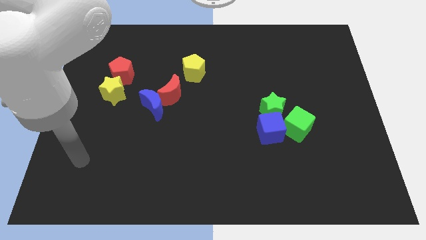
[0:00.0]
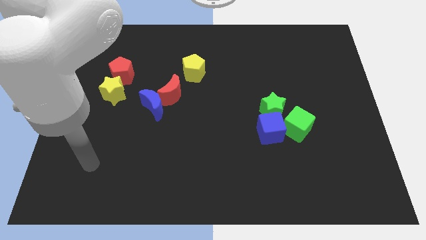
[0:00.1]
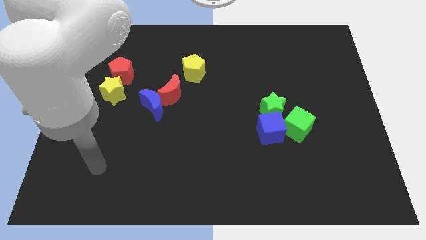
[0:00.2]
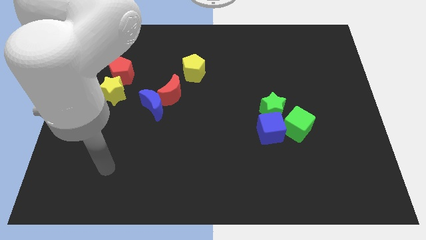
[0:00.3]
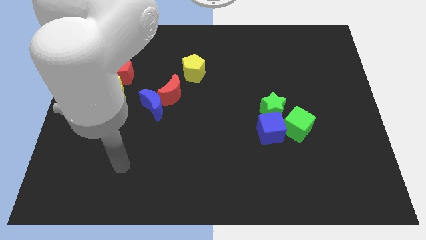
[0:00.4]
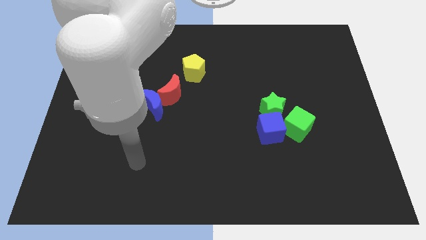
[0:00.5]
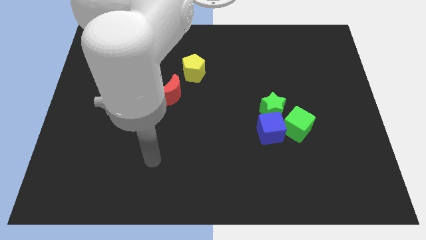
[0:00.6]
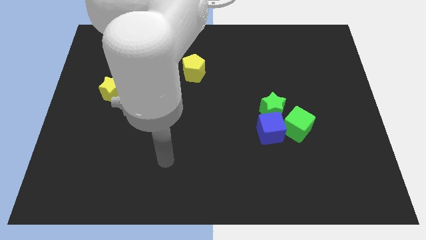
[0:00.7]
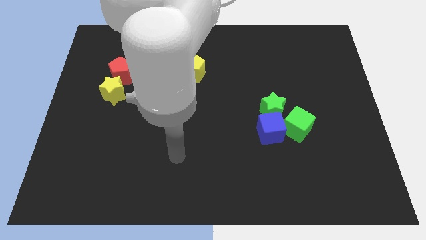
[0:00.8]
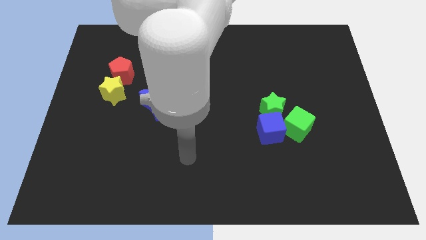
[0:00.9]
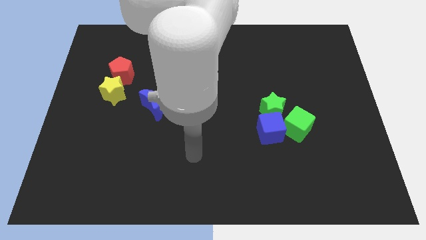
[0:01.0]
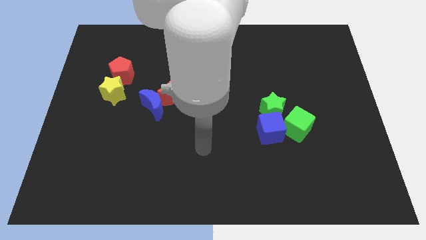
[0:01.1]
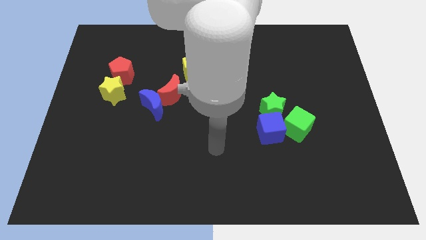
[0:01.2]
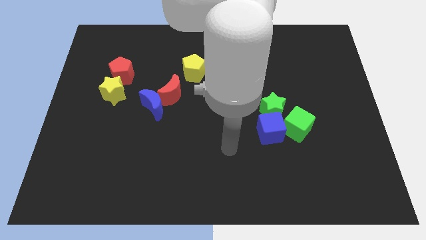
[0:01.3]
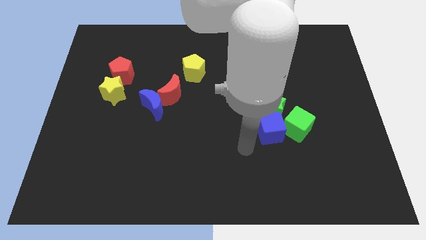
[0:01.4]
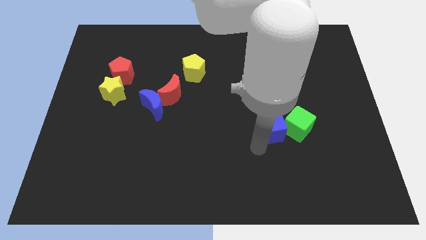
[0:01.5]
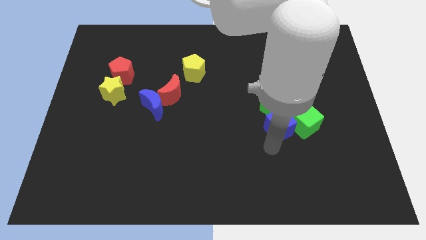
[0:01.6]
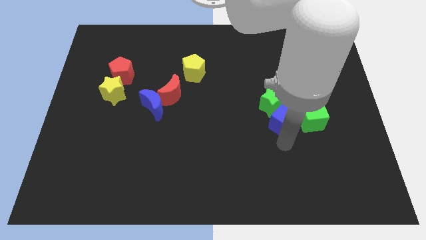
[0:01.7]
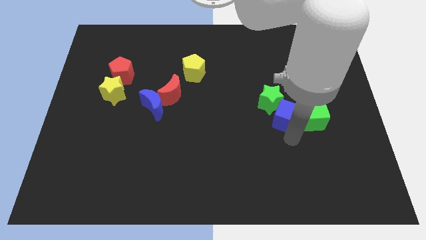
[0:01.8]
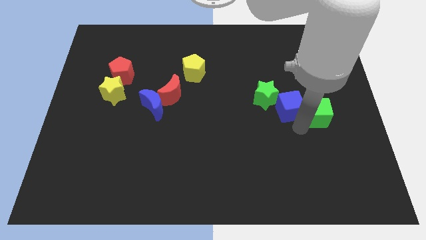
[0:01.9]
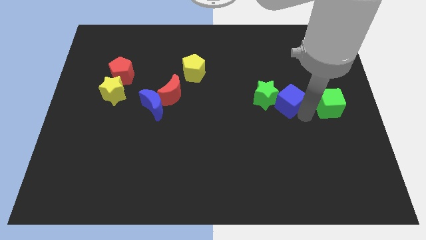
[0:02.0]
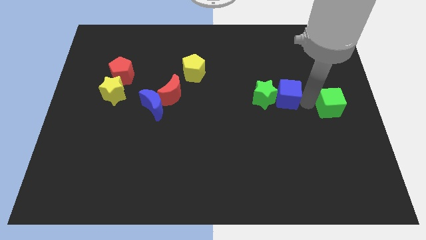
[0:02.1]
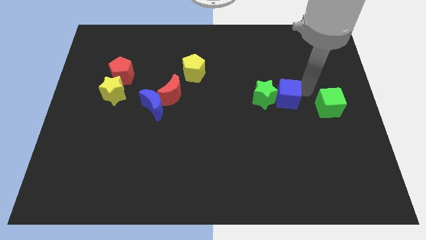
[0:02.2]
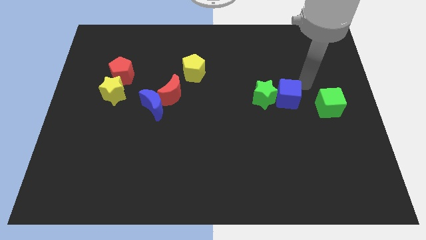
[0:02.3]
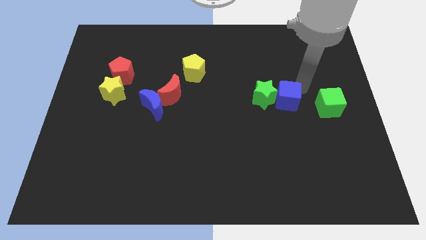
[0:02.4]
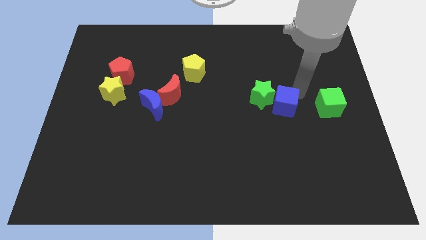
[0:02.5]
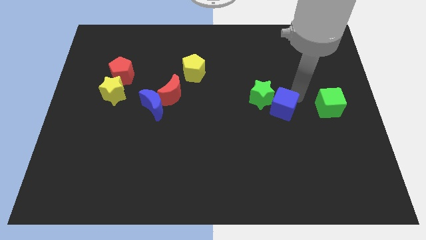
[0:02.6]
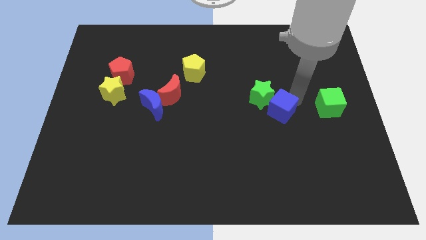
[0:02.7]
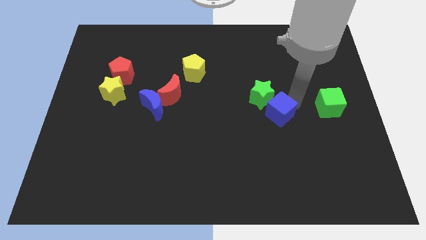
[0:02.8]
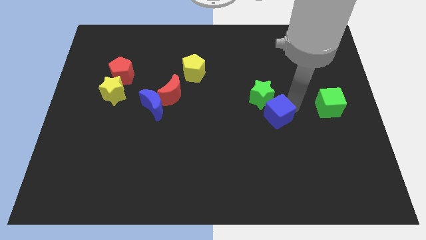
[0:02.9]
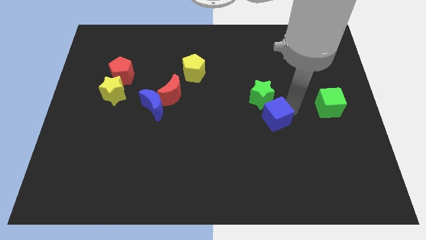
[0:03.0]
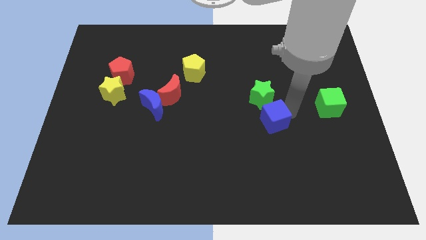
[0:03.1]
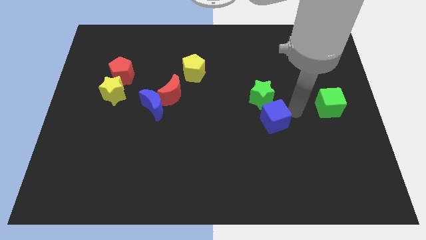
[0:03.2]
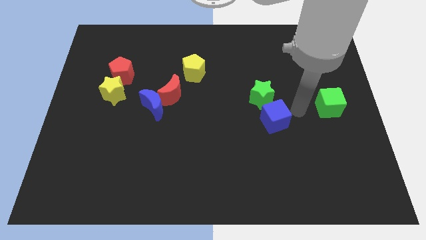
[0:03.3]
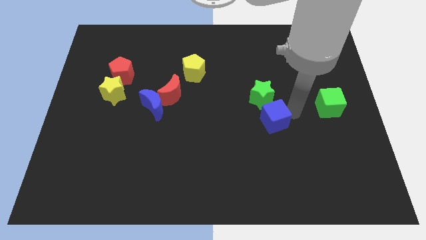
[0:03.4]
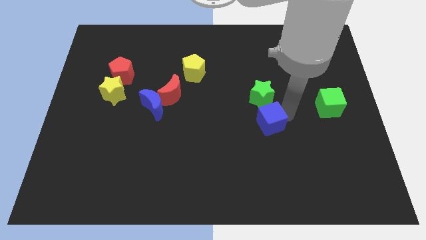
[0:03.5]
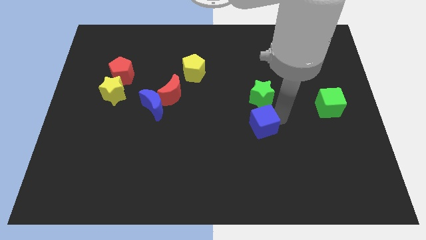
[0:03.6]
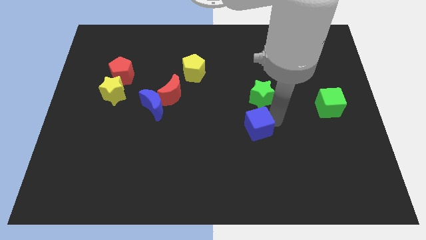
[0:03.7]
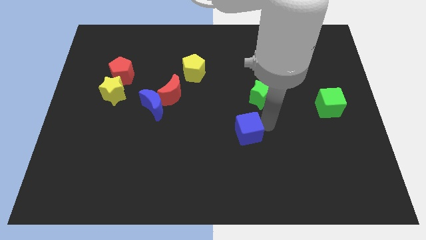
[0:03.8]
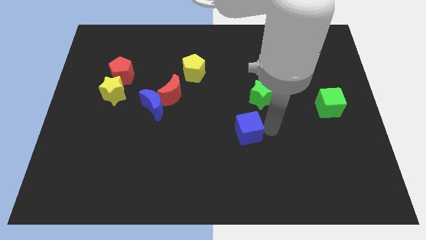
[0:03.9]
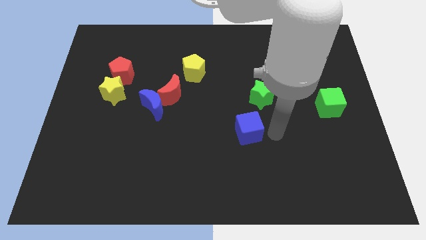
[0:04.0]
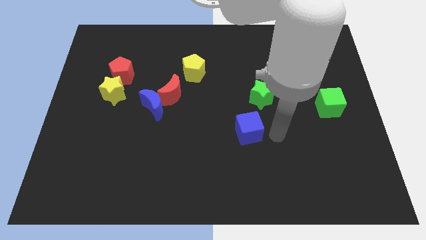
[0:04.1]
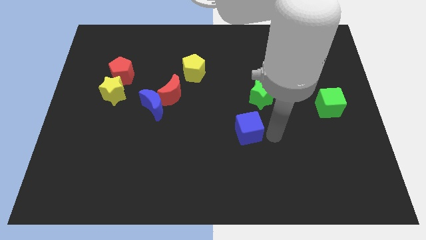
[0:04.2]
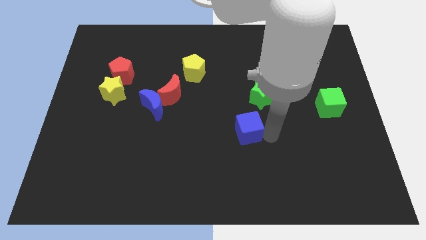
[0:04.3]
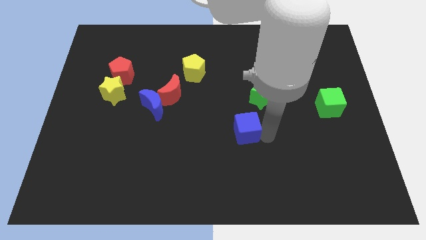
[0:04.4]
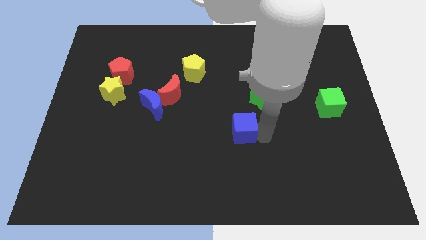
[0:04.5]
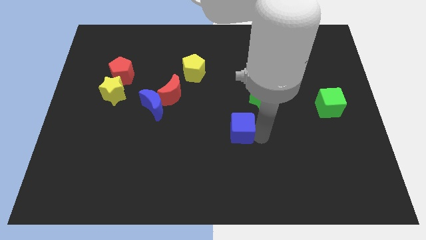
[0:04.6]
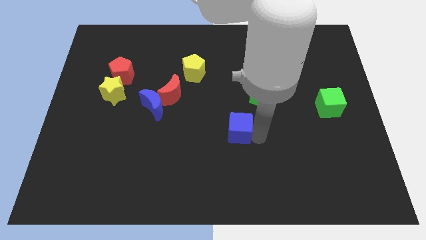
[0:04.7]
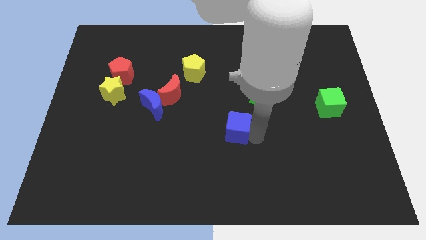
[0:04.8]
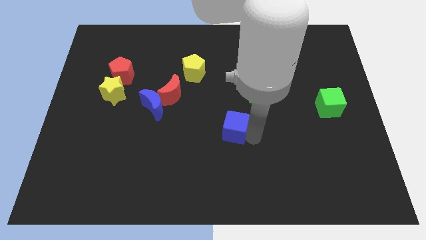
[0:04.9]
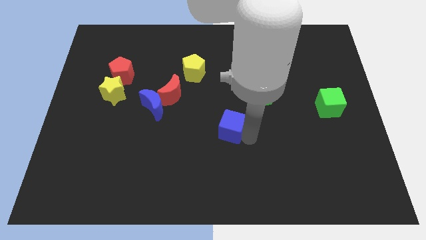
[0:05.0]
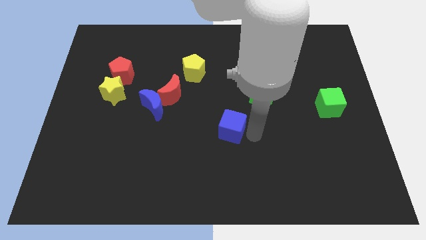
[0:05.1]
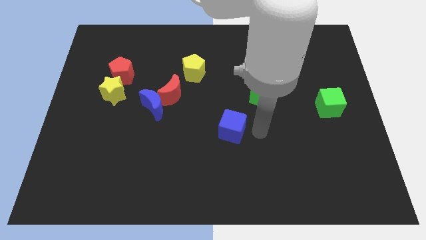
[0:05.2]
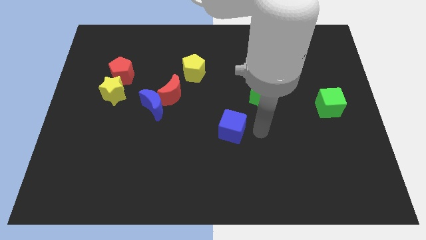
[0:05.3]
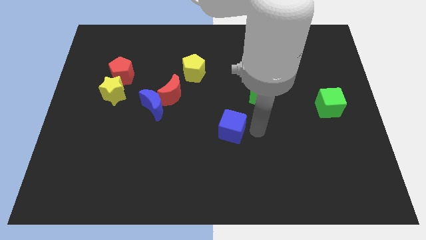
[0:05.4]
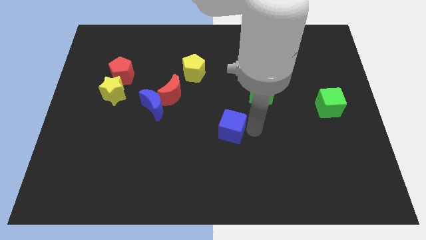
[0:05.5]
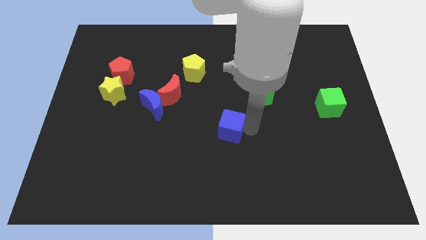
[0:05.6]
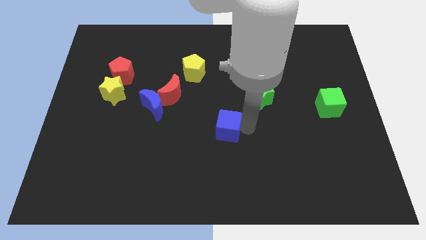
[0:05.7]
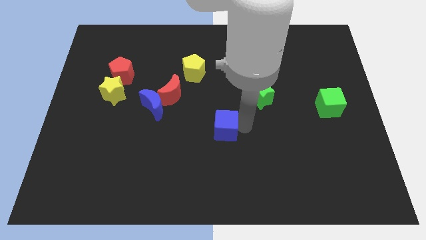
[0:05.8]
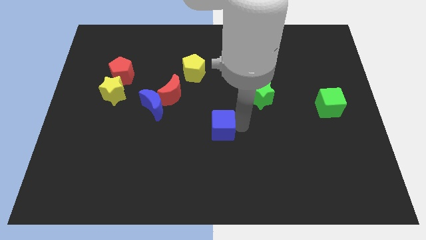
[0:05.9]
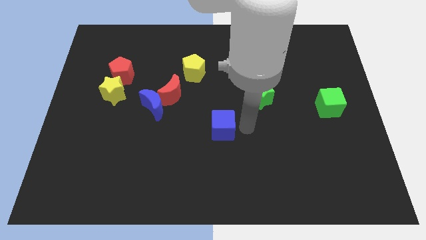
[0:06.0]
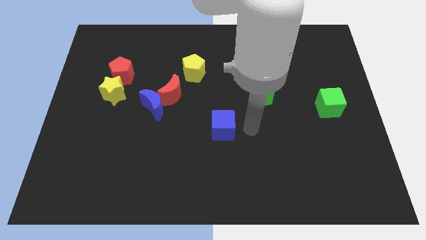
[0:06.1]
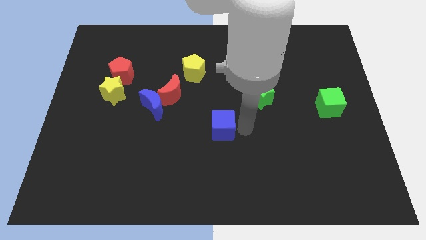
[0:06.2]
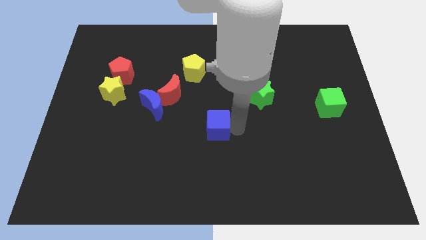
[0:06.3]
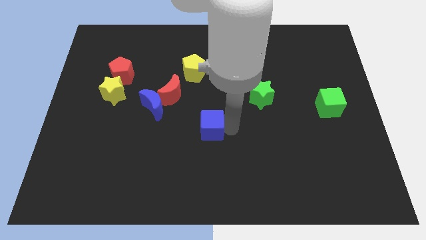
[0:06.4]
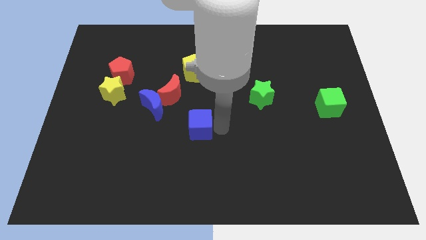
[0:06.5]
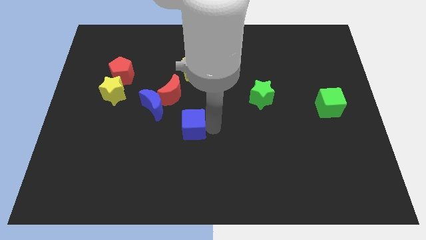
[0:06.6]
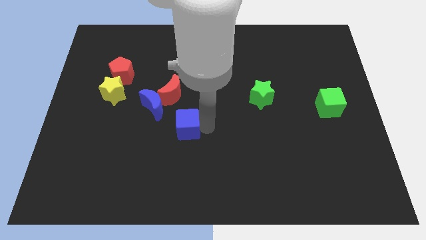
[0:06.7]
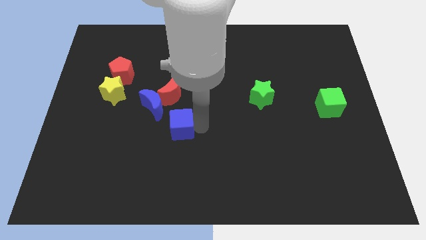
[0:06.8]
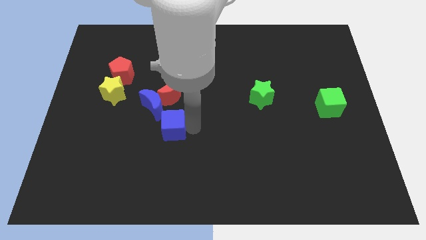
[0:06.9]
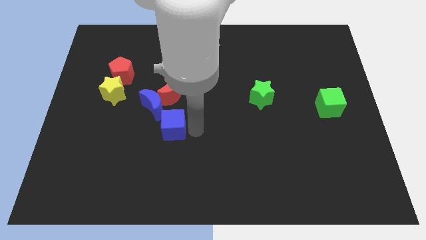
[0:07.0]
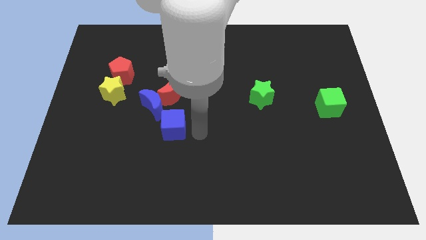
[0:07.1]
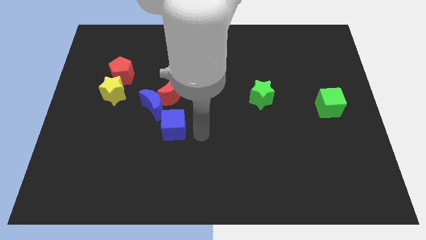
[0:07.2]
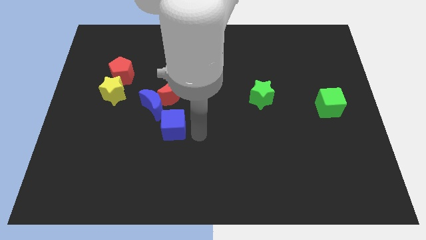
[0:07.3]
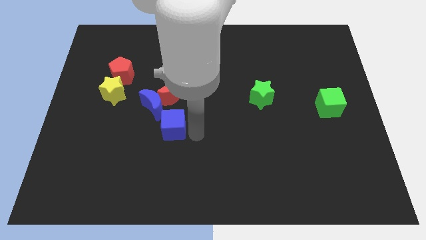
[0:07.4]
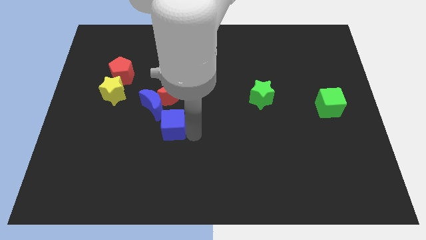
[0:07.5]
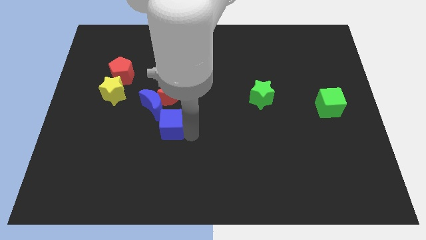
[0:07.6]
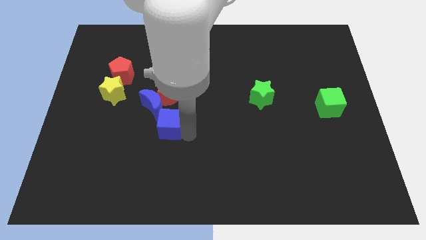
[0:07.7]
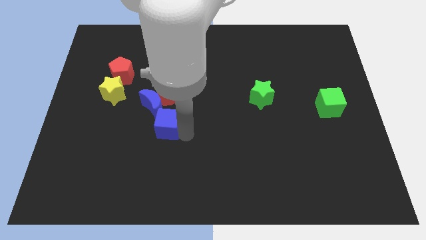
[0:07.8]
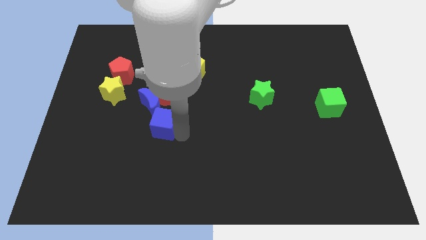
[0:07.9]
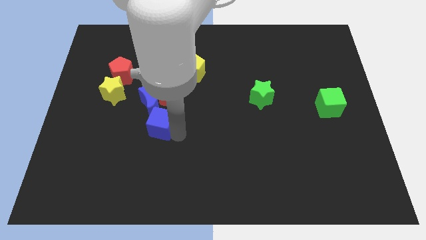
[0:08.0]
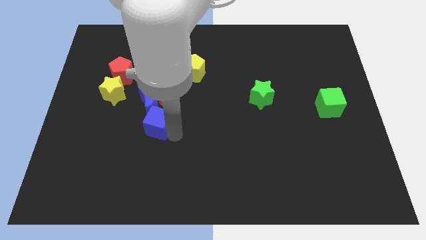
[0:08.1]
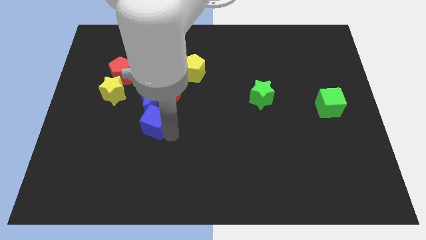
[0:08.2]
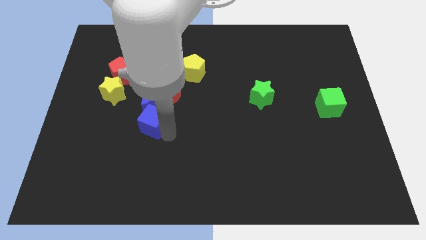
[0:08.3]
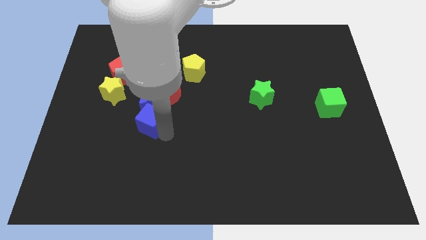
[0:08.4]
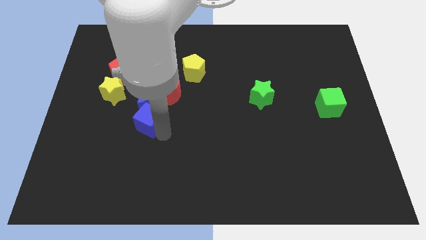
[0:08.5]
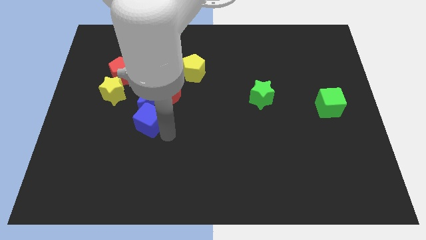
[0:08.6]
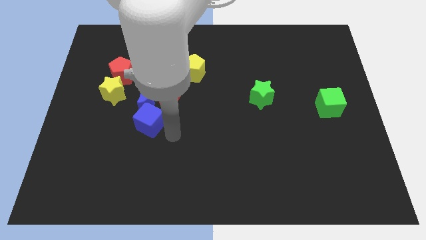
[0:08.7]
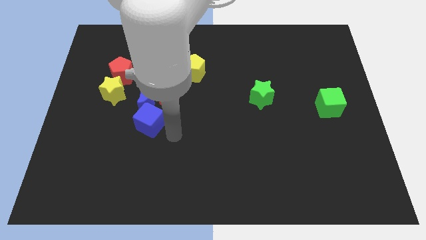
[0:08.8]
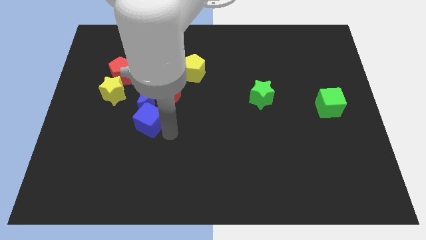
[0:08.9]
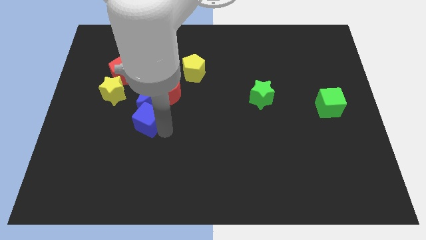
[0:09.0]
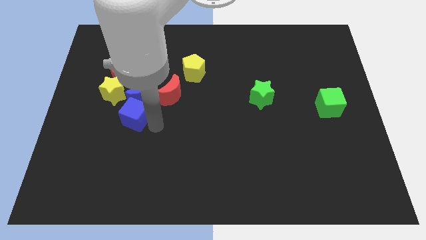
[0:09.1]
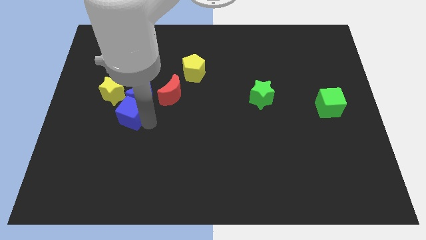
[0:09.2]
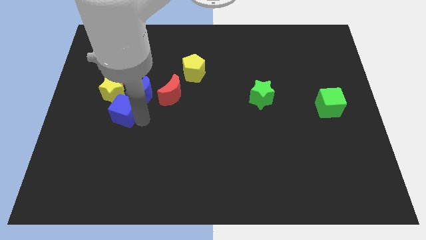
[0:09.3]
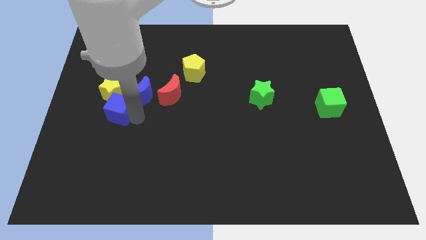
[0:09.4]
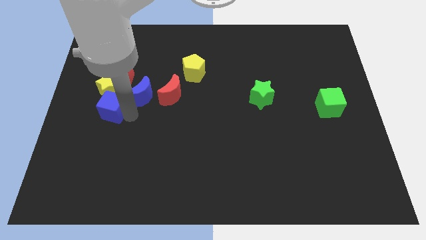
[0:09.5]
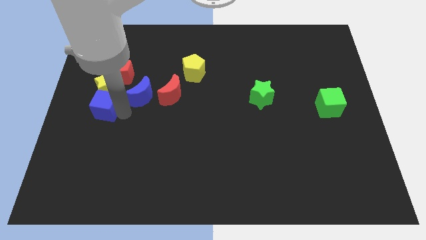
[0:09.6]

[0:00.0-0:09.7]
push the blue cube to the center left
